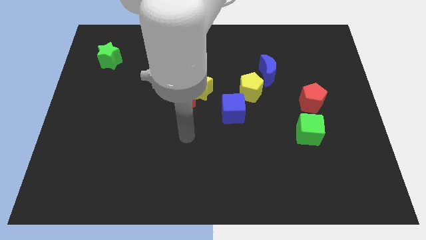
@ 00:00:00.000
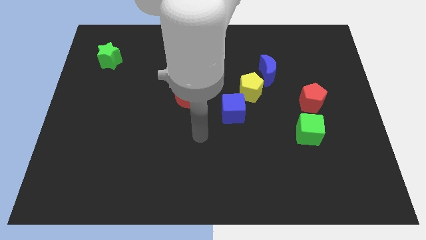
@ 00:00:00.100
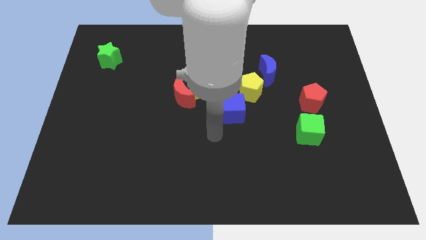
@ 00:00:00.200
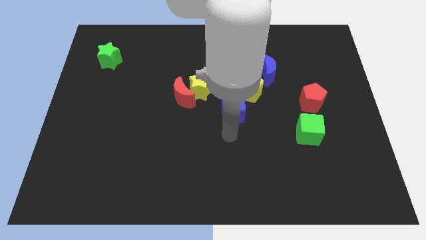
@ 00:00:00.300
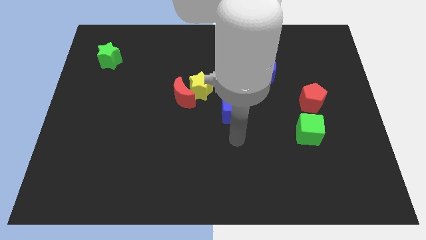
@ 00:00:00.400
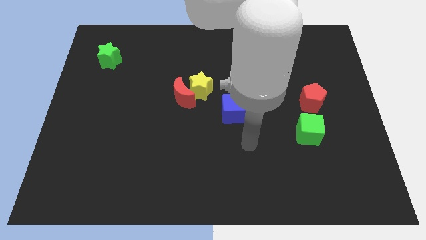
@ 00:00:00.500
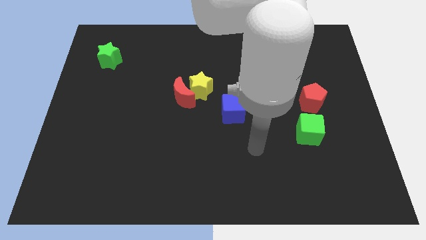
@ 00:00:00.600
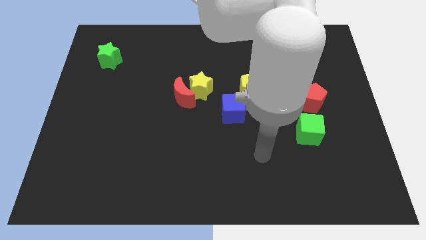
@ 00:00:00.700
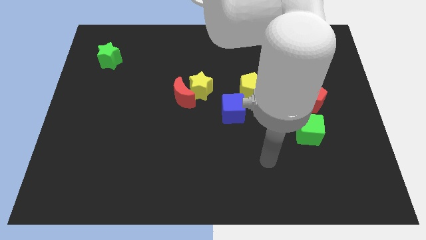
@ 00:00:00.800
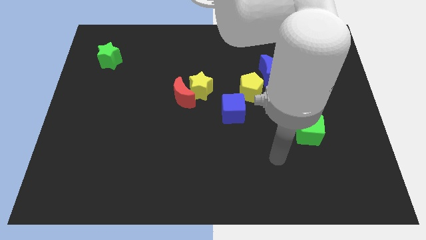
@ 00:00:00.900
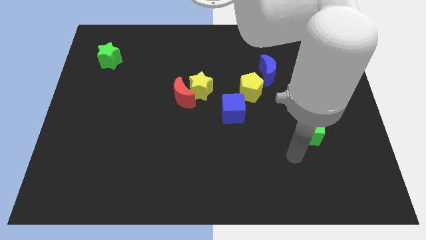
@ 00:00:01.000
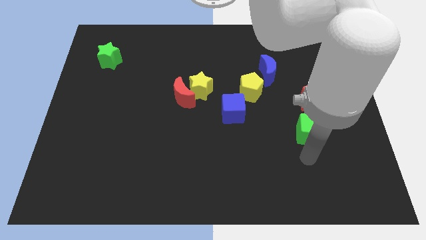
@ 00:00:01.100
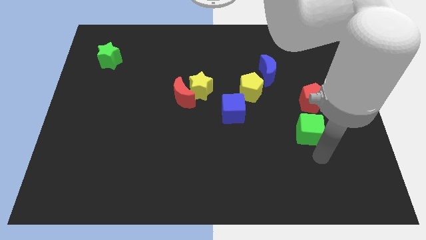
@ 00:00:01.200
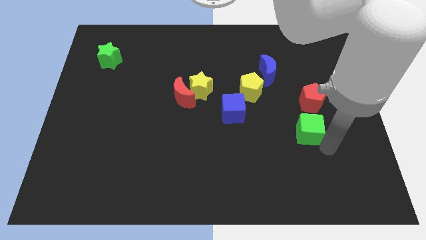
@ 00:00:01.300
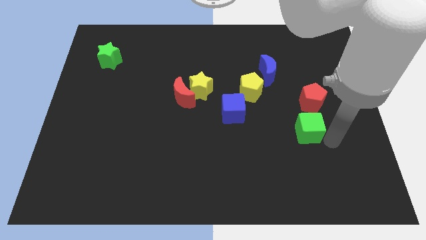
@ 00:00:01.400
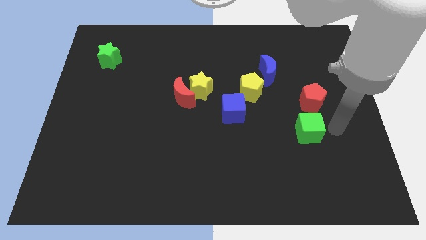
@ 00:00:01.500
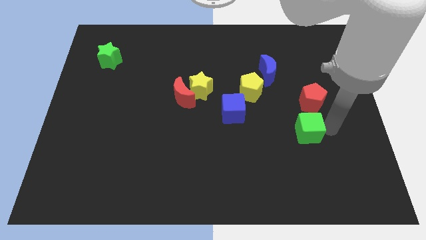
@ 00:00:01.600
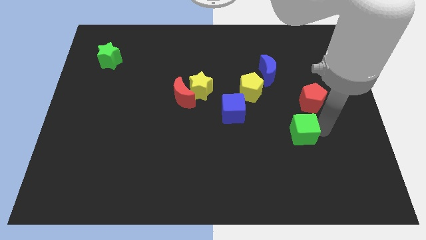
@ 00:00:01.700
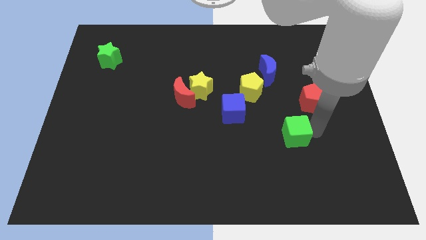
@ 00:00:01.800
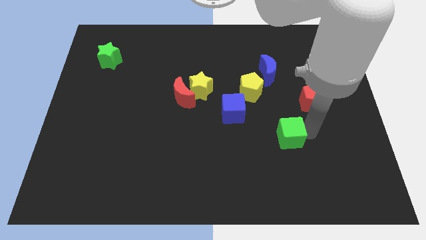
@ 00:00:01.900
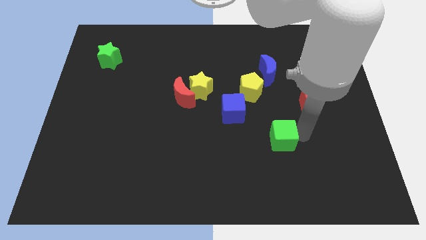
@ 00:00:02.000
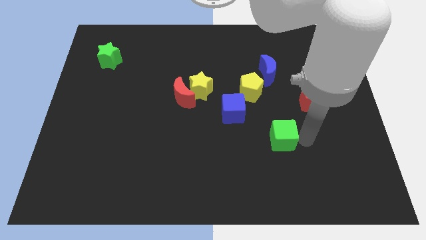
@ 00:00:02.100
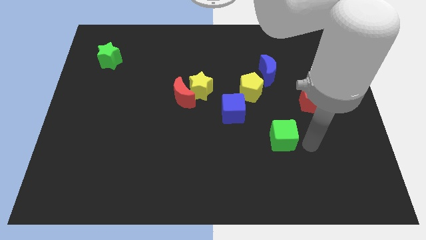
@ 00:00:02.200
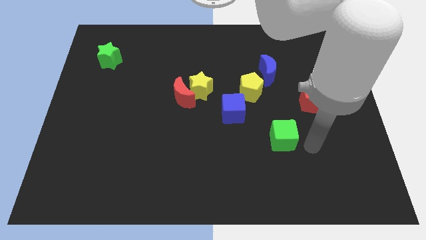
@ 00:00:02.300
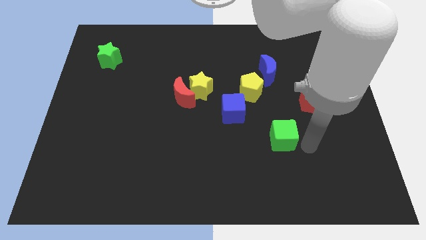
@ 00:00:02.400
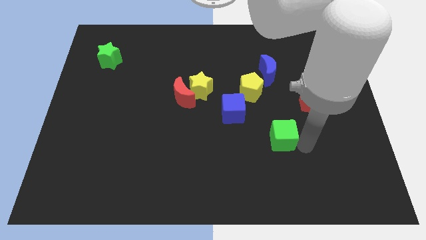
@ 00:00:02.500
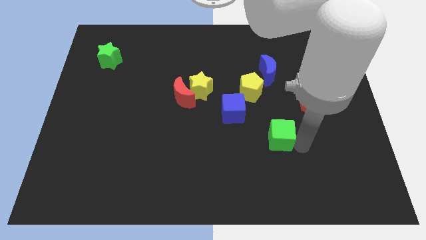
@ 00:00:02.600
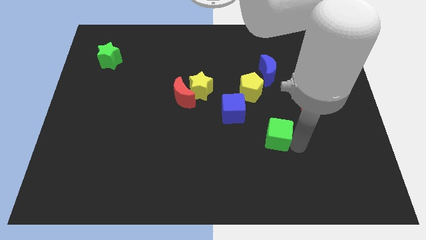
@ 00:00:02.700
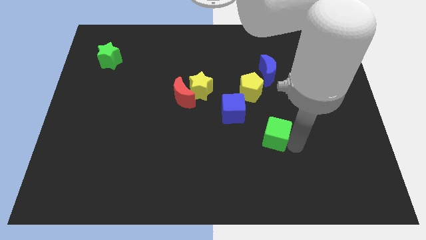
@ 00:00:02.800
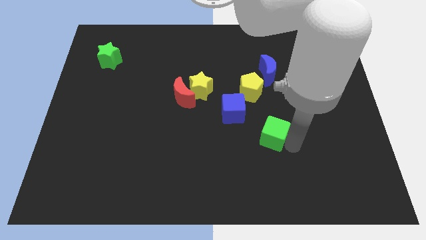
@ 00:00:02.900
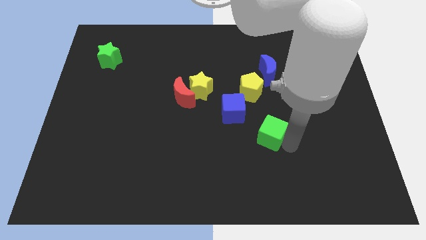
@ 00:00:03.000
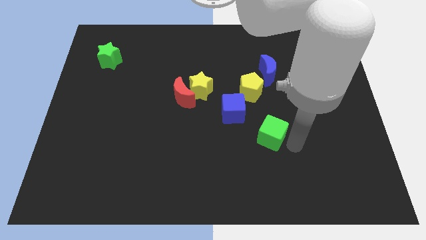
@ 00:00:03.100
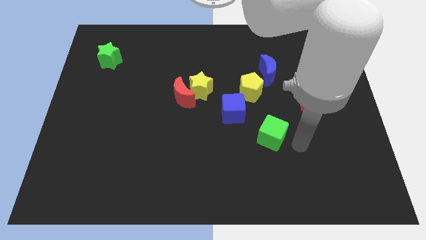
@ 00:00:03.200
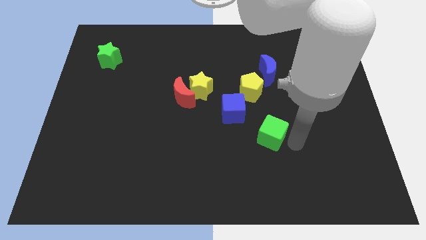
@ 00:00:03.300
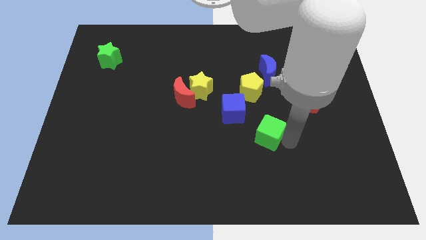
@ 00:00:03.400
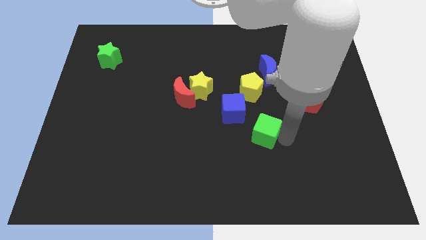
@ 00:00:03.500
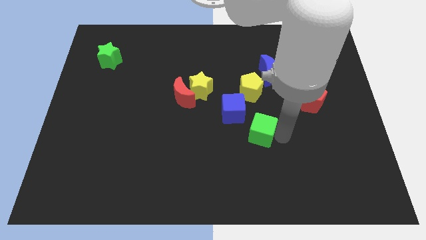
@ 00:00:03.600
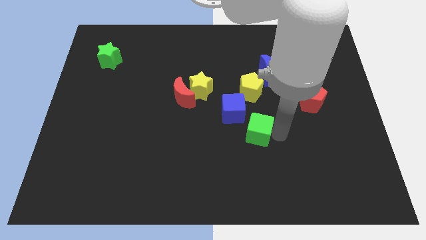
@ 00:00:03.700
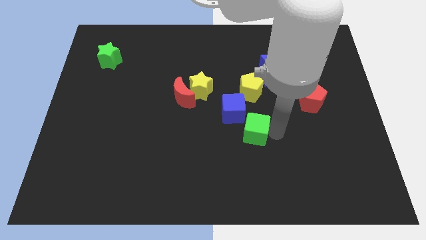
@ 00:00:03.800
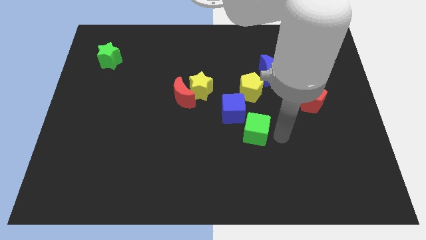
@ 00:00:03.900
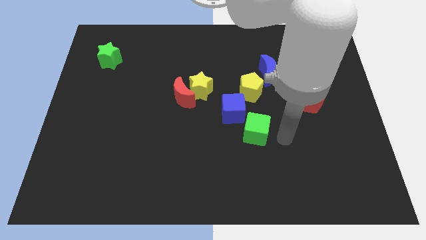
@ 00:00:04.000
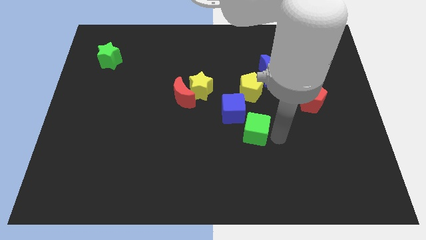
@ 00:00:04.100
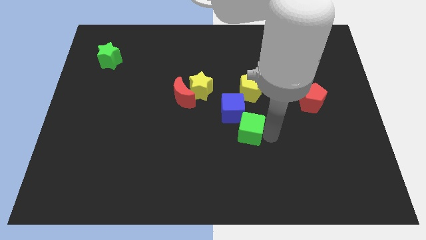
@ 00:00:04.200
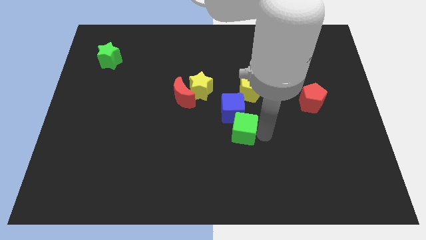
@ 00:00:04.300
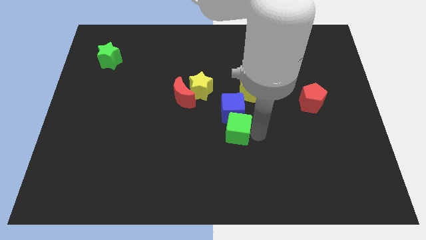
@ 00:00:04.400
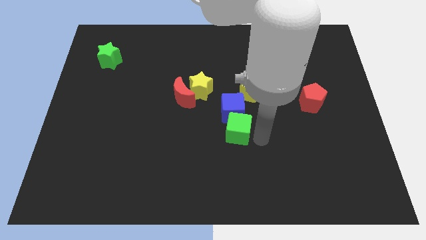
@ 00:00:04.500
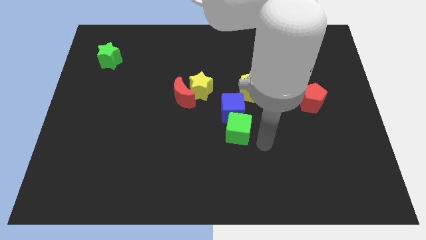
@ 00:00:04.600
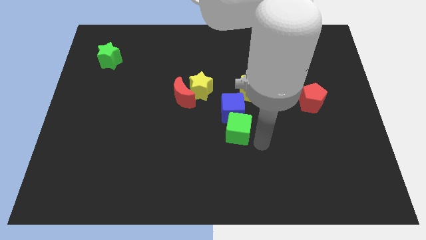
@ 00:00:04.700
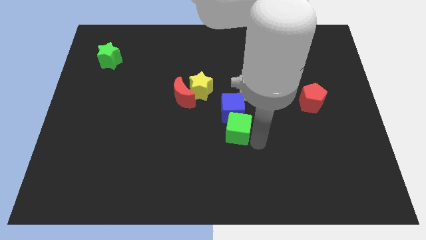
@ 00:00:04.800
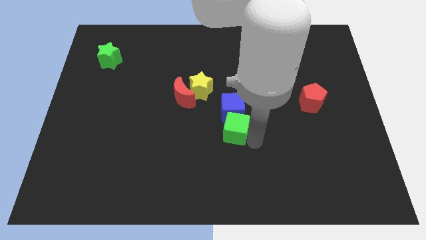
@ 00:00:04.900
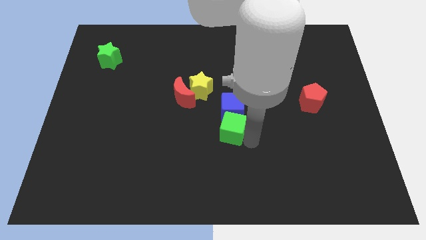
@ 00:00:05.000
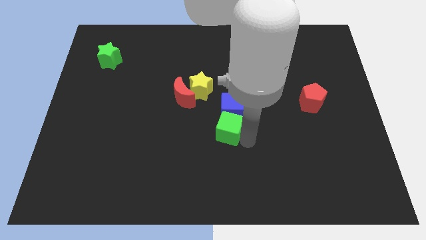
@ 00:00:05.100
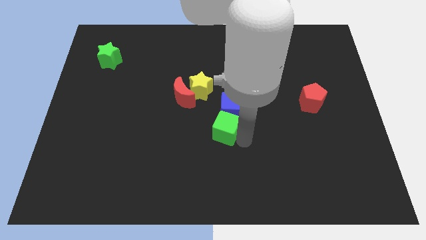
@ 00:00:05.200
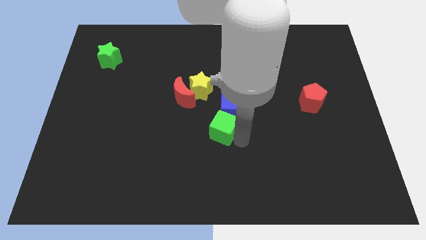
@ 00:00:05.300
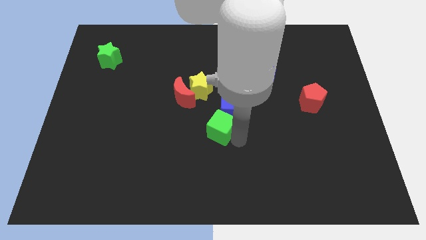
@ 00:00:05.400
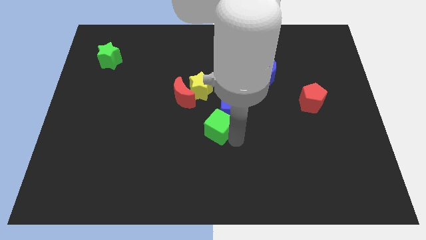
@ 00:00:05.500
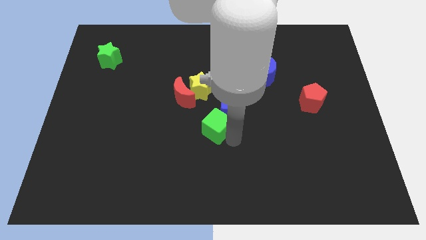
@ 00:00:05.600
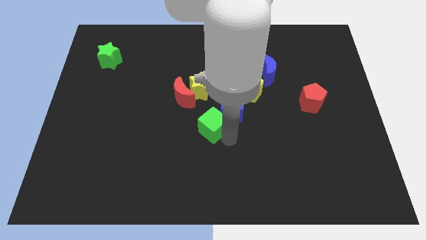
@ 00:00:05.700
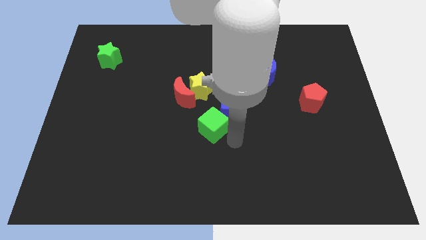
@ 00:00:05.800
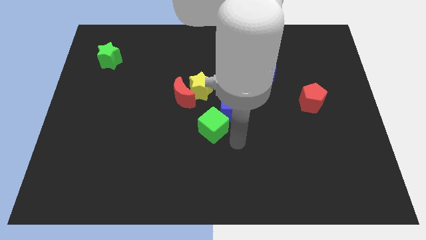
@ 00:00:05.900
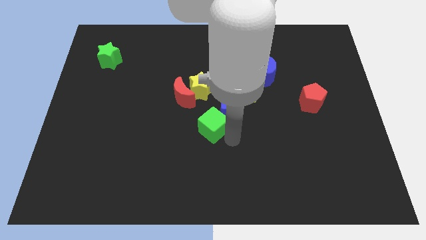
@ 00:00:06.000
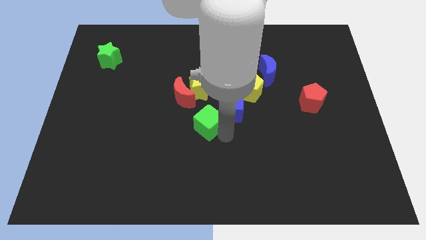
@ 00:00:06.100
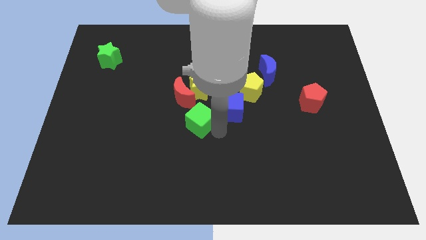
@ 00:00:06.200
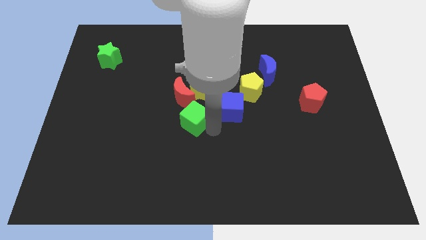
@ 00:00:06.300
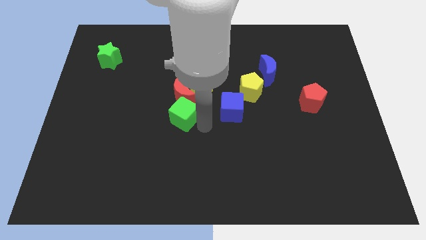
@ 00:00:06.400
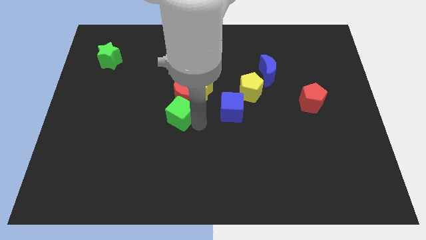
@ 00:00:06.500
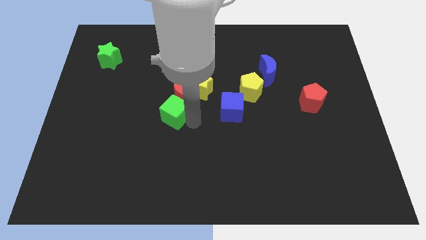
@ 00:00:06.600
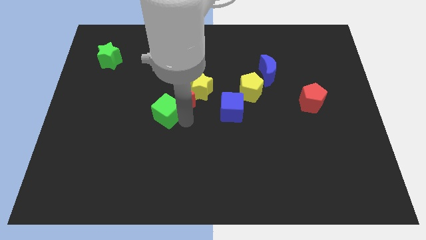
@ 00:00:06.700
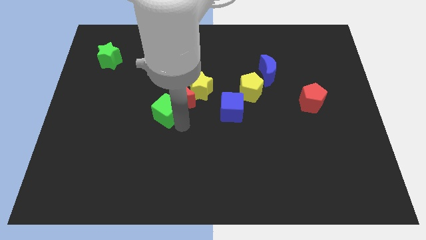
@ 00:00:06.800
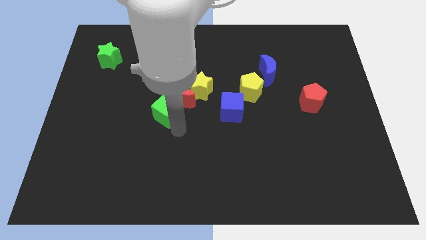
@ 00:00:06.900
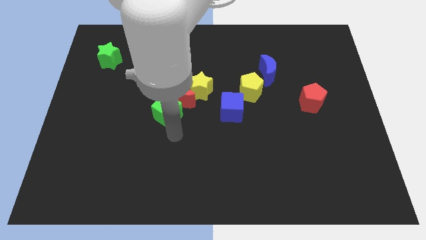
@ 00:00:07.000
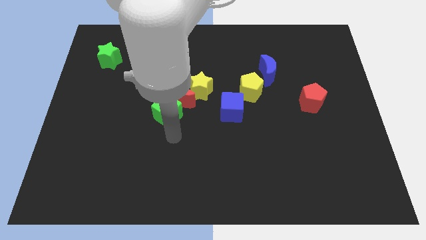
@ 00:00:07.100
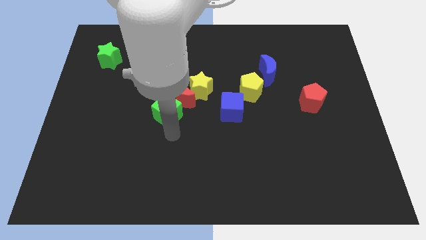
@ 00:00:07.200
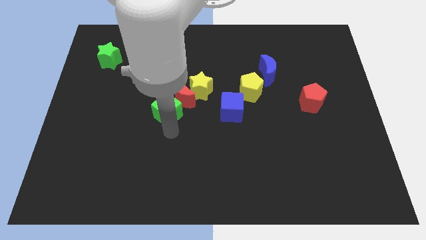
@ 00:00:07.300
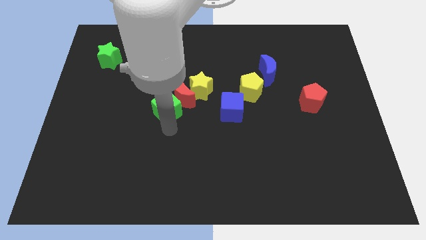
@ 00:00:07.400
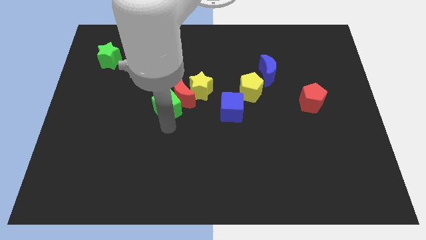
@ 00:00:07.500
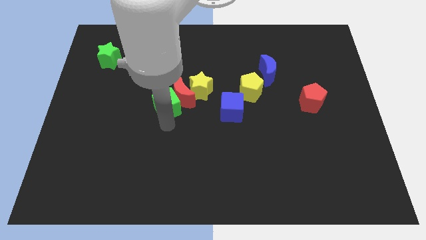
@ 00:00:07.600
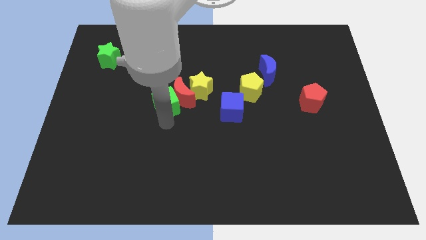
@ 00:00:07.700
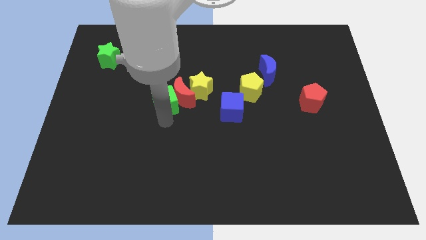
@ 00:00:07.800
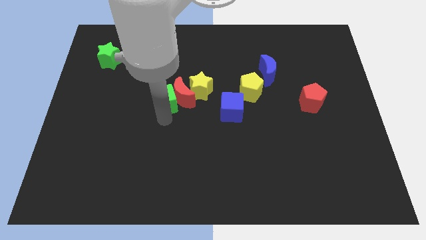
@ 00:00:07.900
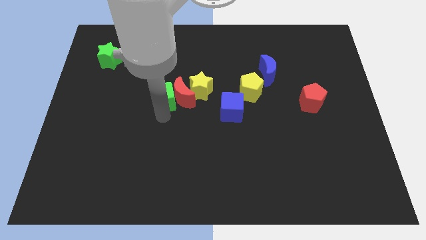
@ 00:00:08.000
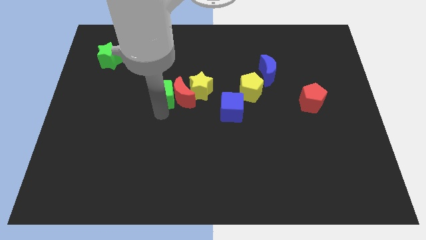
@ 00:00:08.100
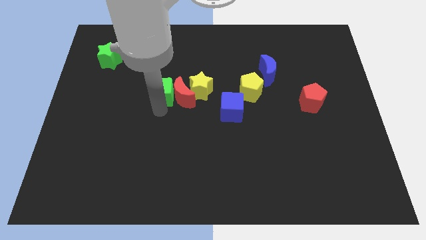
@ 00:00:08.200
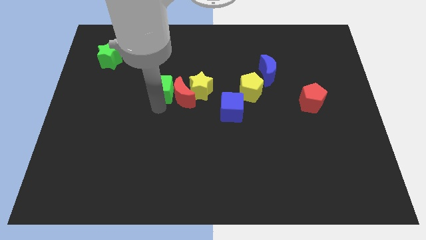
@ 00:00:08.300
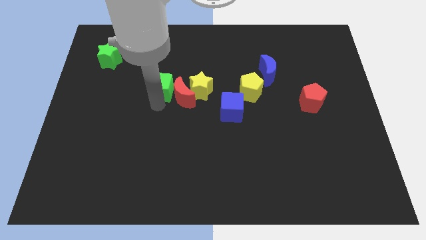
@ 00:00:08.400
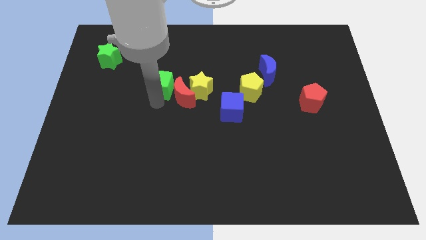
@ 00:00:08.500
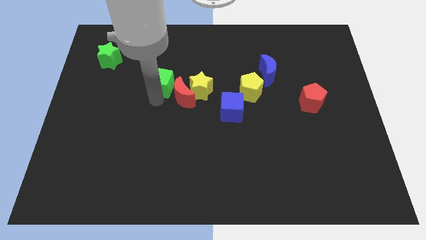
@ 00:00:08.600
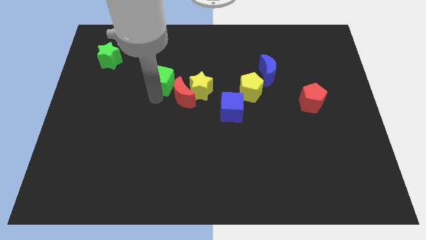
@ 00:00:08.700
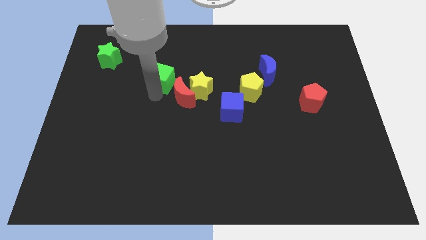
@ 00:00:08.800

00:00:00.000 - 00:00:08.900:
push the green cube diagonally up and to the left of the yellow star
